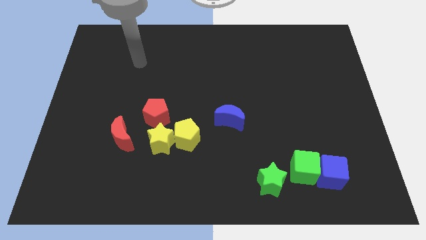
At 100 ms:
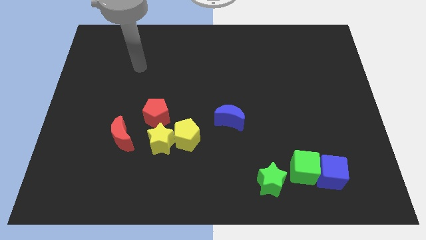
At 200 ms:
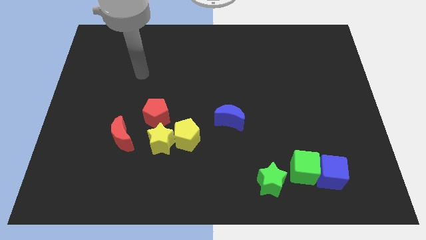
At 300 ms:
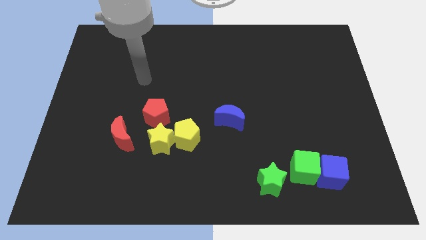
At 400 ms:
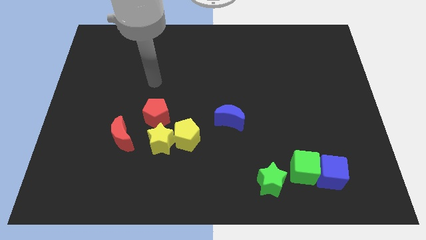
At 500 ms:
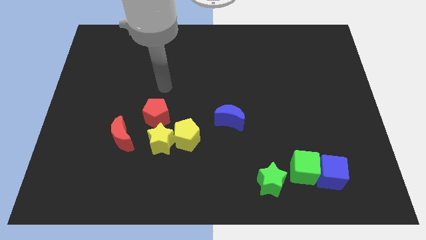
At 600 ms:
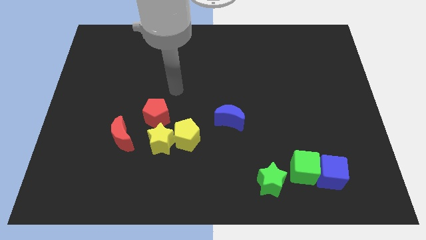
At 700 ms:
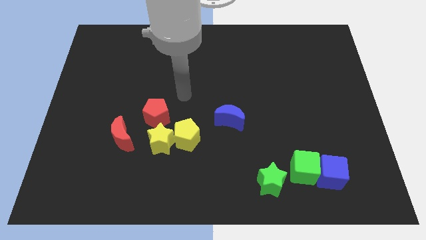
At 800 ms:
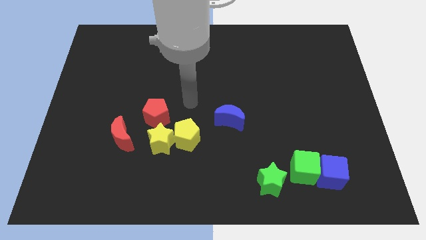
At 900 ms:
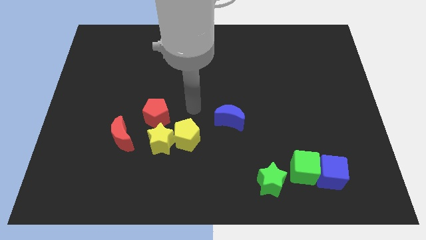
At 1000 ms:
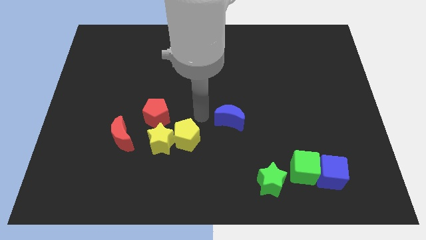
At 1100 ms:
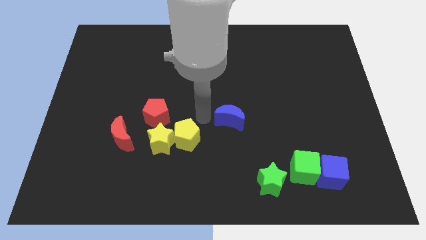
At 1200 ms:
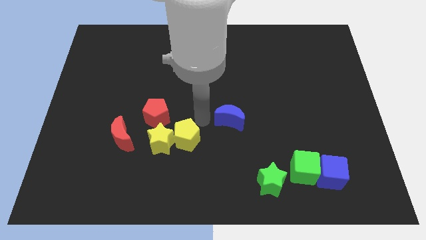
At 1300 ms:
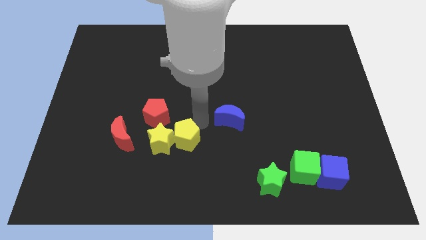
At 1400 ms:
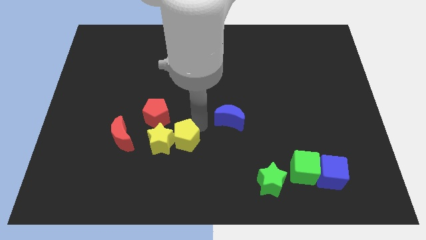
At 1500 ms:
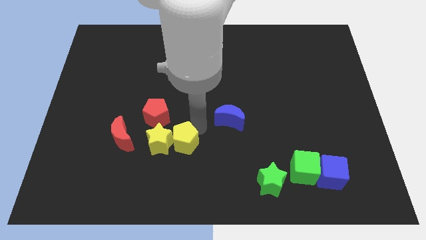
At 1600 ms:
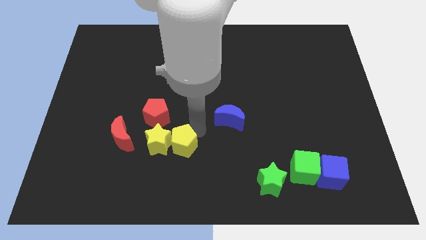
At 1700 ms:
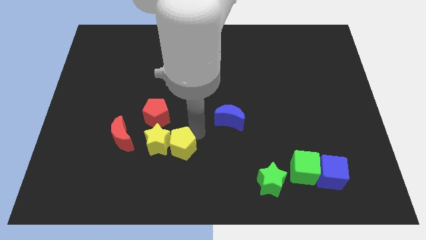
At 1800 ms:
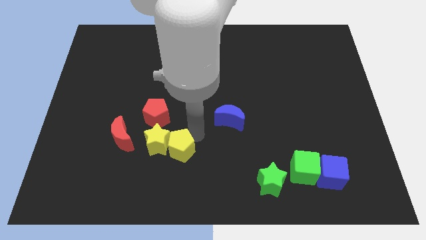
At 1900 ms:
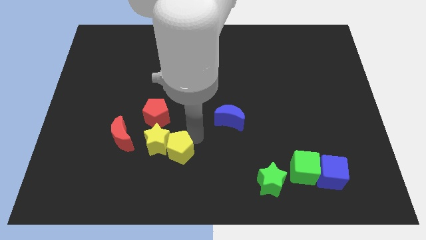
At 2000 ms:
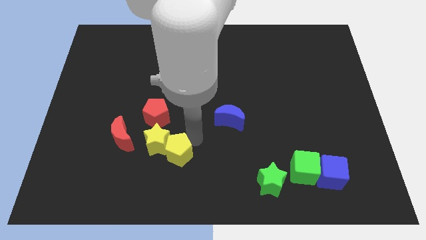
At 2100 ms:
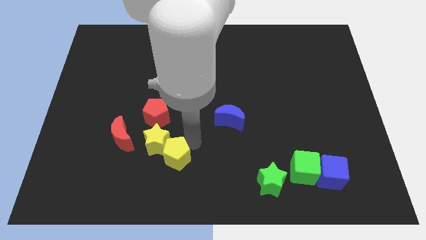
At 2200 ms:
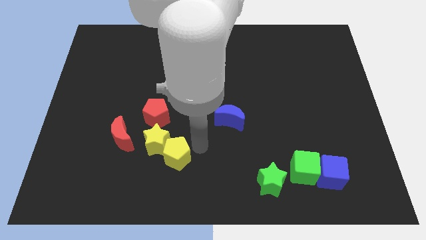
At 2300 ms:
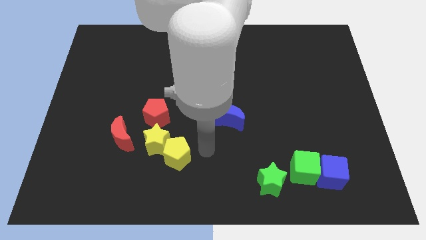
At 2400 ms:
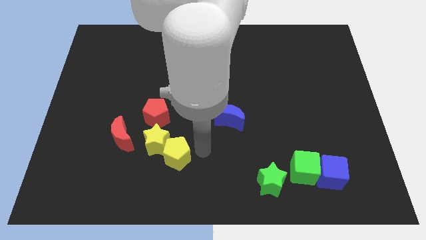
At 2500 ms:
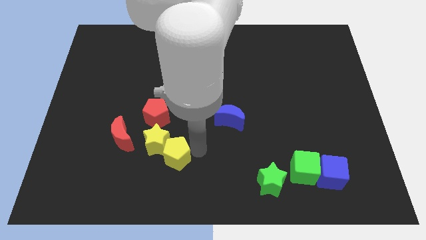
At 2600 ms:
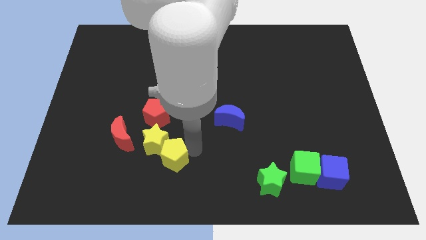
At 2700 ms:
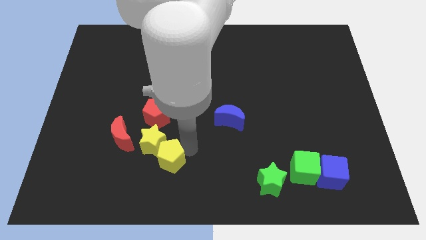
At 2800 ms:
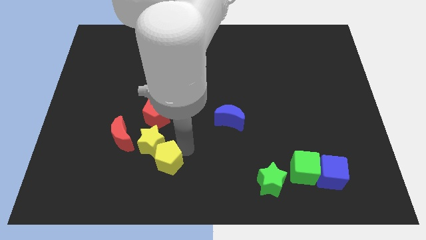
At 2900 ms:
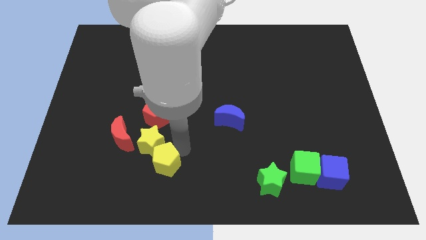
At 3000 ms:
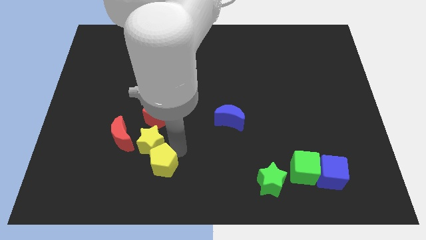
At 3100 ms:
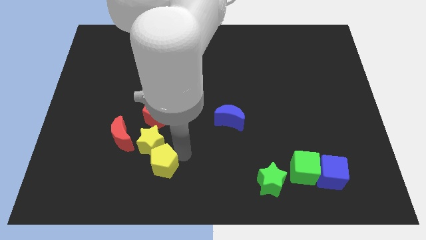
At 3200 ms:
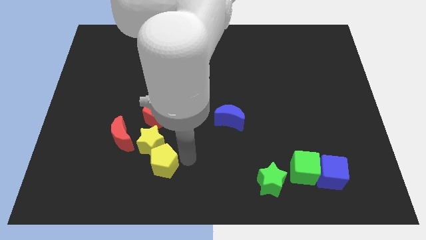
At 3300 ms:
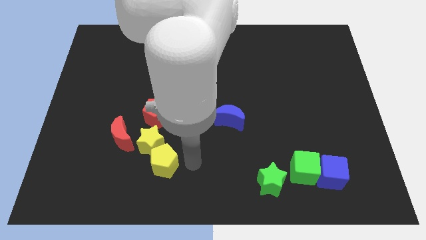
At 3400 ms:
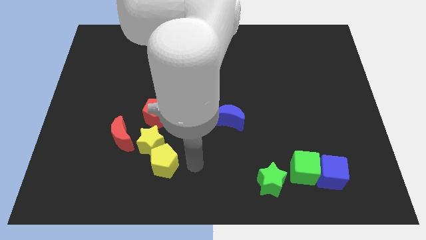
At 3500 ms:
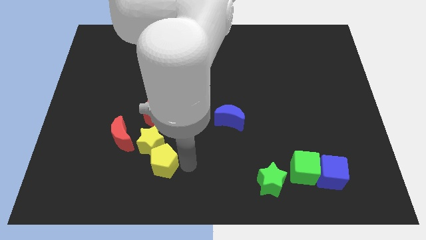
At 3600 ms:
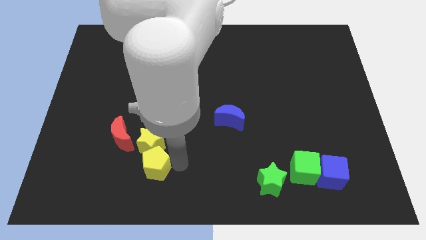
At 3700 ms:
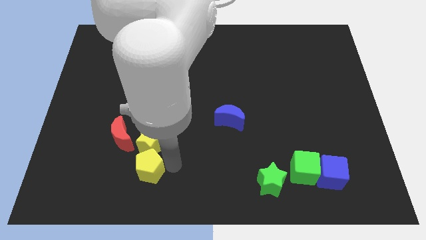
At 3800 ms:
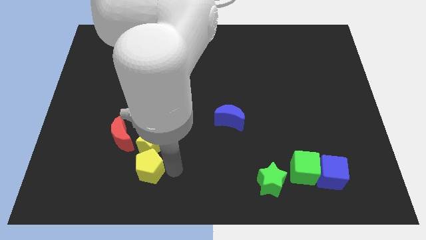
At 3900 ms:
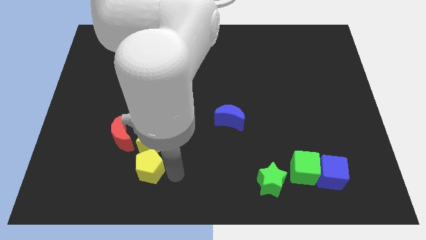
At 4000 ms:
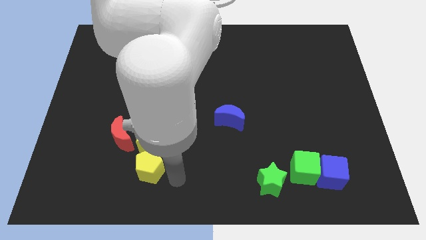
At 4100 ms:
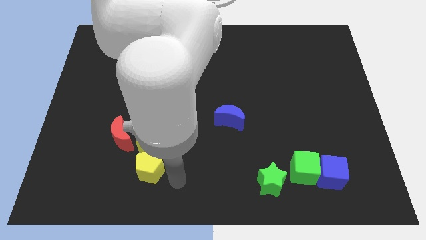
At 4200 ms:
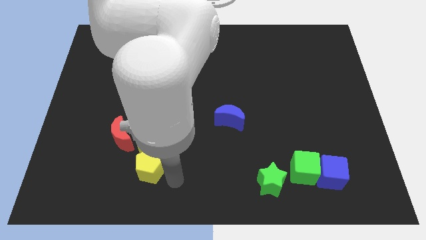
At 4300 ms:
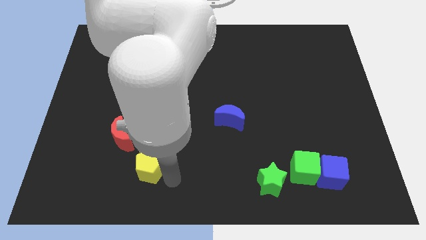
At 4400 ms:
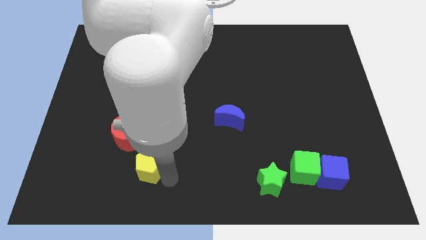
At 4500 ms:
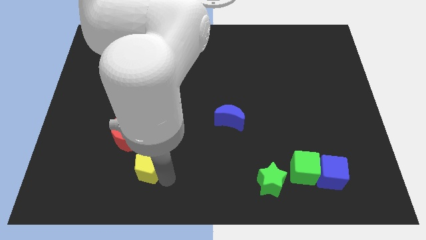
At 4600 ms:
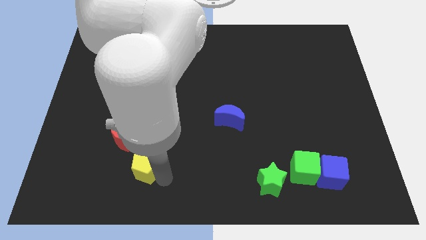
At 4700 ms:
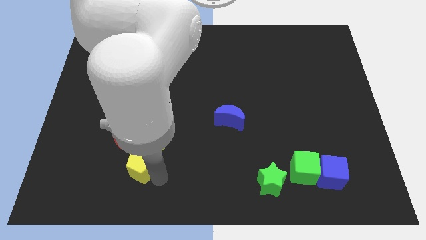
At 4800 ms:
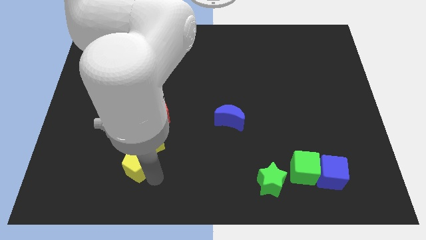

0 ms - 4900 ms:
push the yellow pentagon a little bit to the left

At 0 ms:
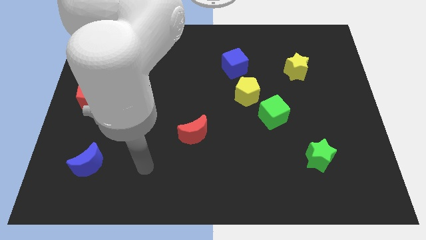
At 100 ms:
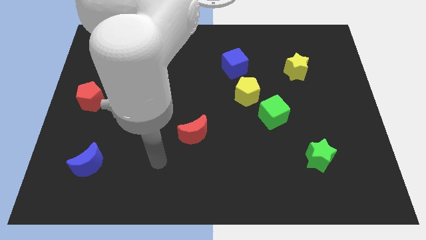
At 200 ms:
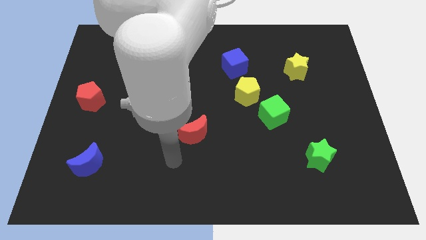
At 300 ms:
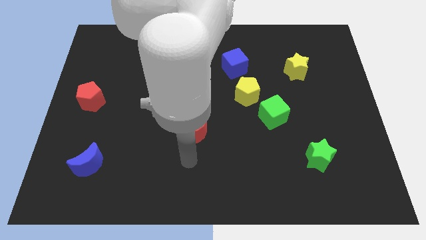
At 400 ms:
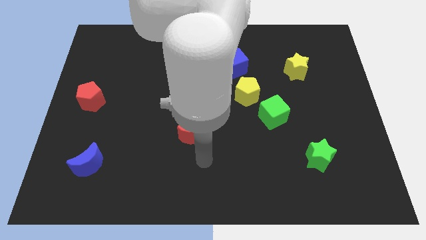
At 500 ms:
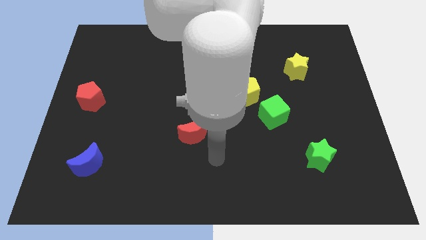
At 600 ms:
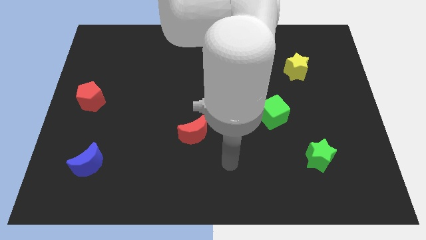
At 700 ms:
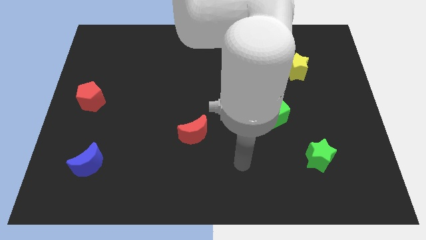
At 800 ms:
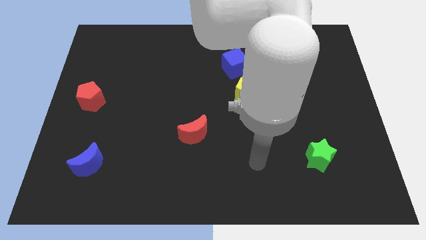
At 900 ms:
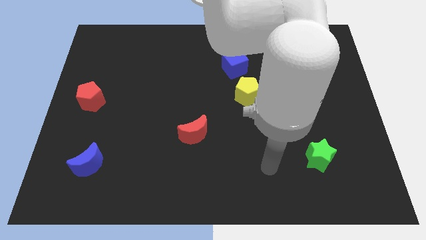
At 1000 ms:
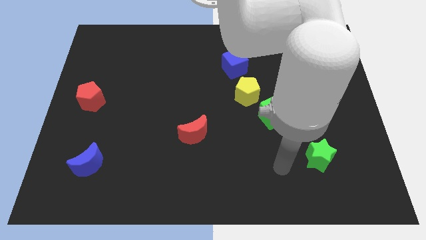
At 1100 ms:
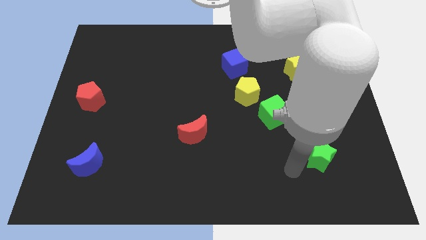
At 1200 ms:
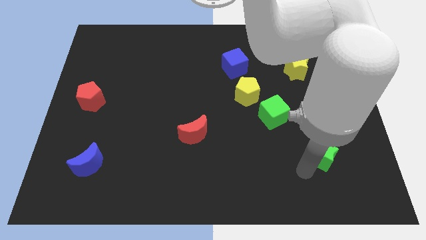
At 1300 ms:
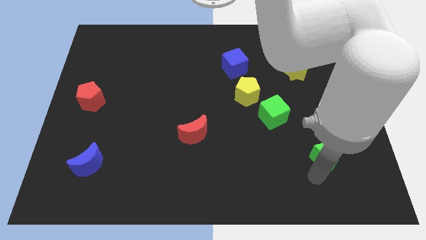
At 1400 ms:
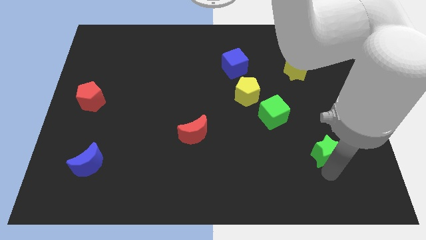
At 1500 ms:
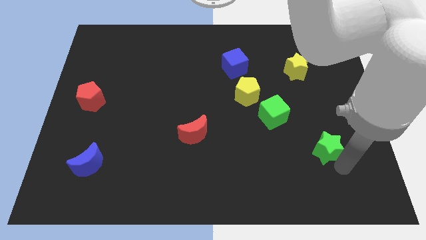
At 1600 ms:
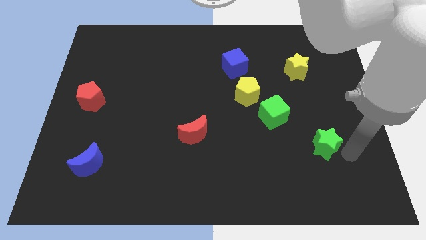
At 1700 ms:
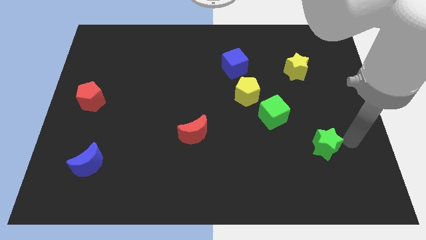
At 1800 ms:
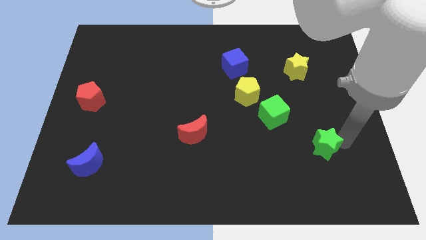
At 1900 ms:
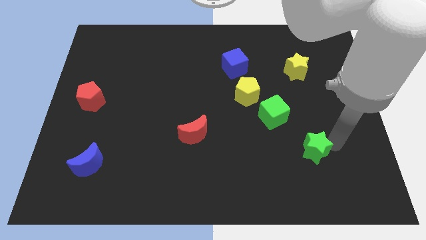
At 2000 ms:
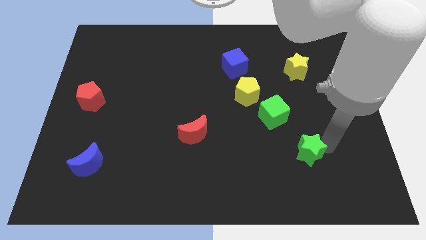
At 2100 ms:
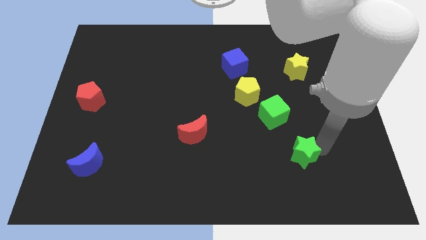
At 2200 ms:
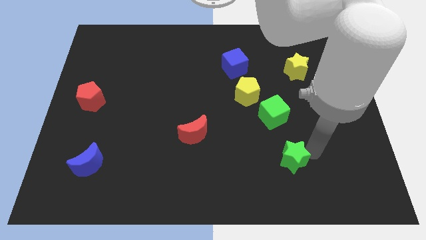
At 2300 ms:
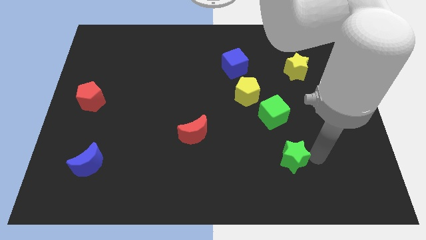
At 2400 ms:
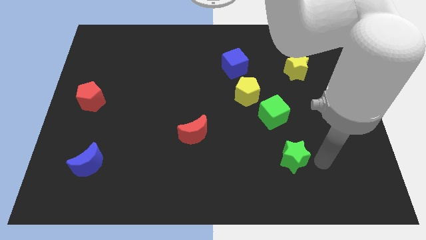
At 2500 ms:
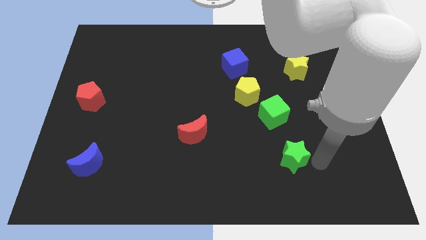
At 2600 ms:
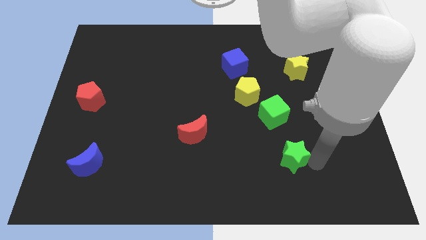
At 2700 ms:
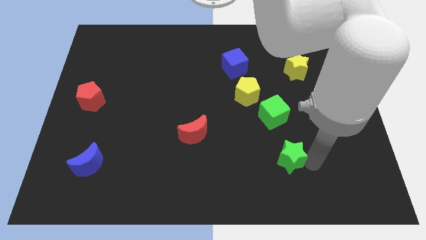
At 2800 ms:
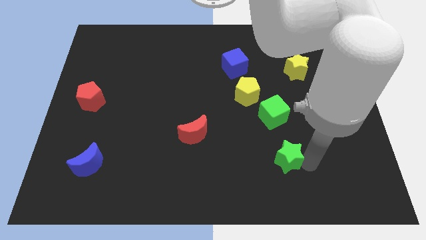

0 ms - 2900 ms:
slide the green star to the left somewhat

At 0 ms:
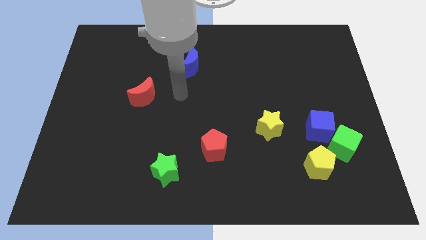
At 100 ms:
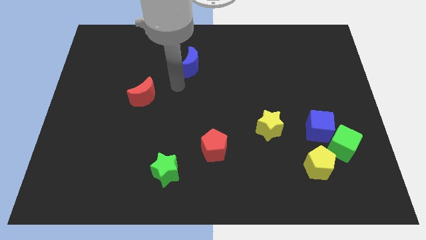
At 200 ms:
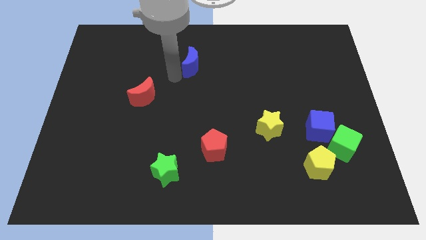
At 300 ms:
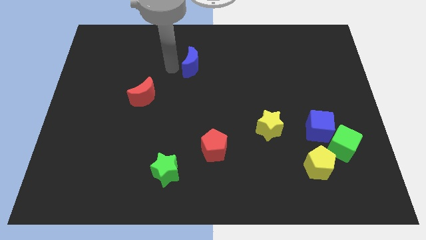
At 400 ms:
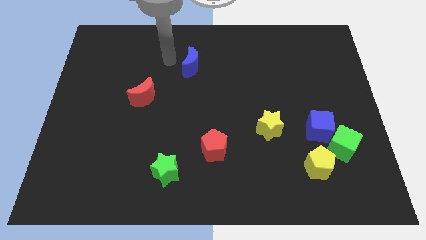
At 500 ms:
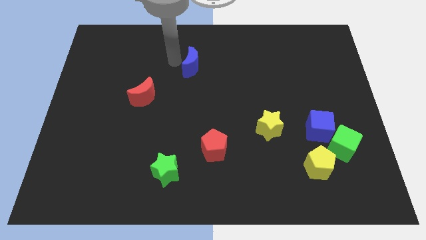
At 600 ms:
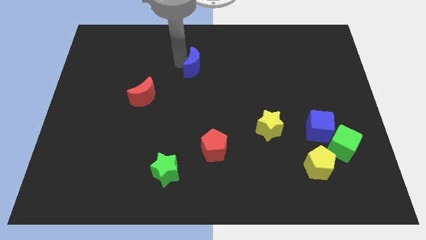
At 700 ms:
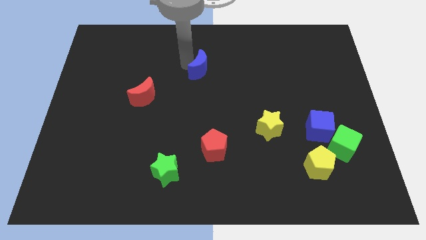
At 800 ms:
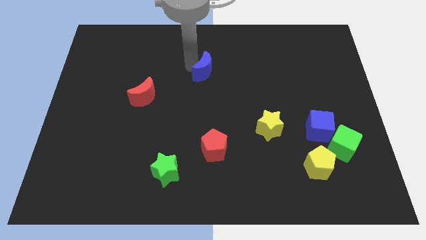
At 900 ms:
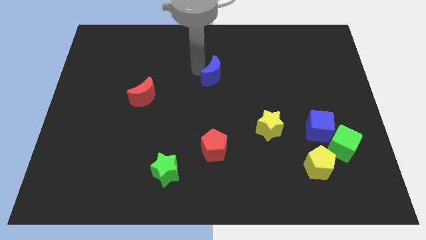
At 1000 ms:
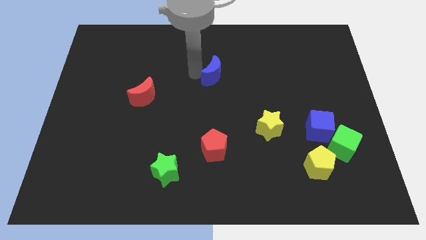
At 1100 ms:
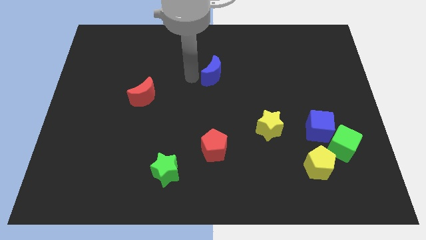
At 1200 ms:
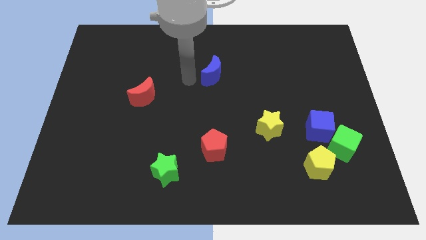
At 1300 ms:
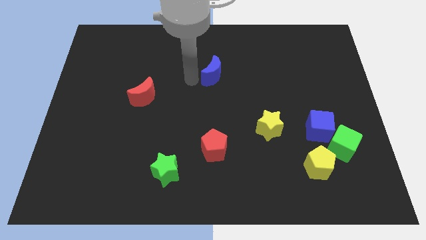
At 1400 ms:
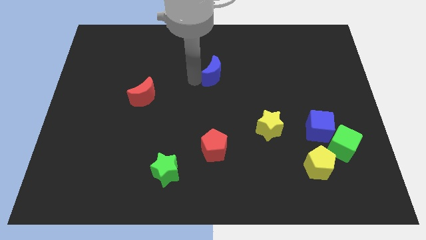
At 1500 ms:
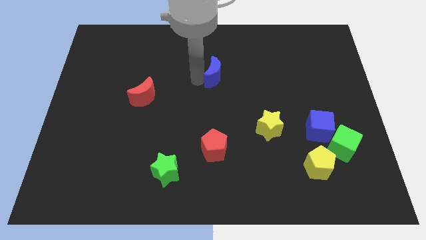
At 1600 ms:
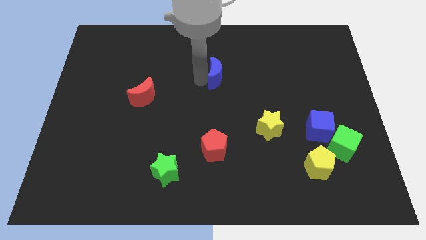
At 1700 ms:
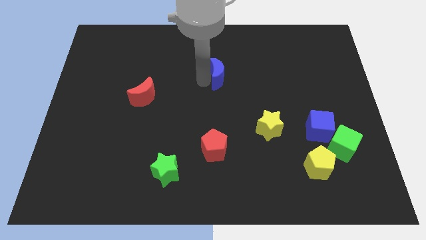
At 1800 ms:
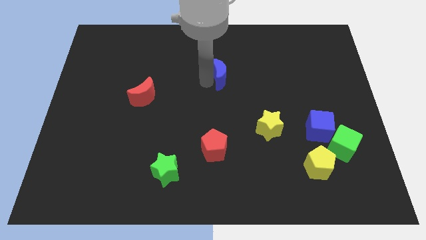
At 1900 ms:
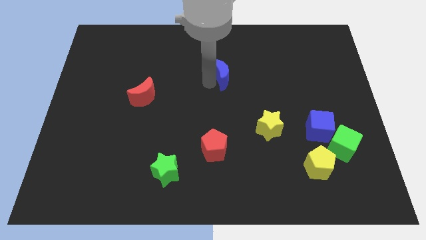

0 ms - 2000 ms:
push the blue moon to the right slightly
